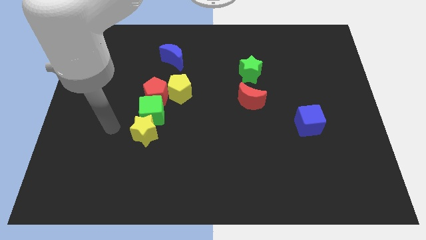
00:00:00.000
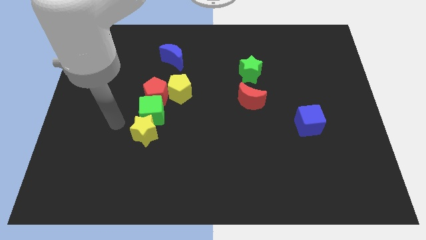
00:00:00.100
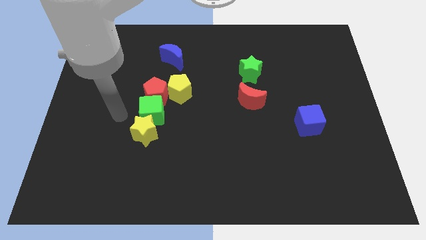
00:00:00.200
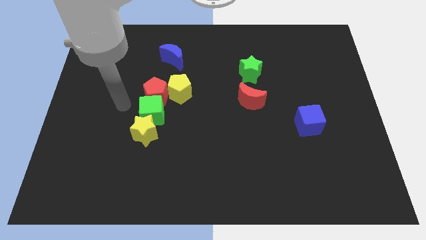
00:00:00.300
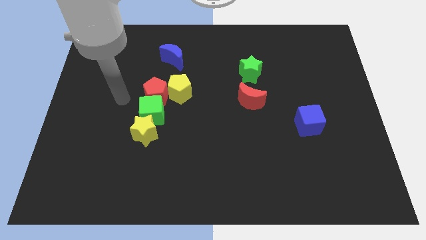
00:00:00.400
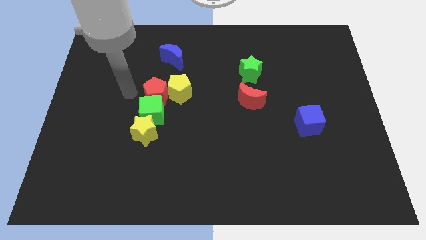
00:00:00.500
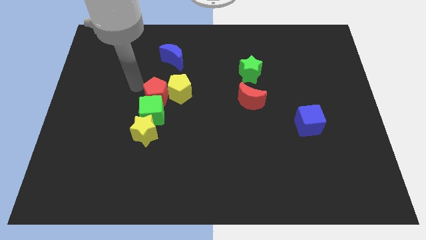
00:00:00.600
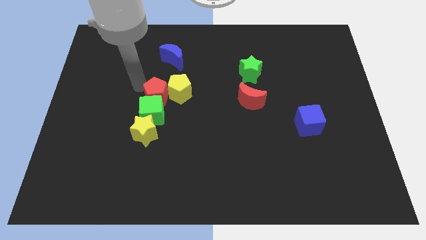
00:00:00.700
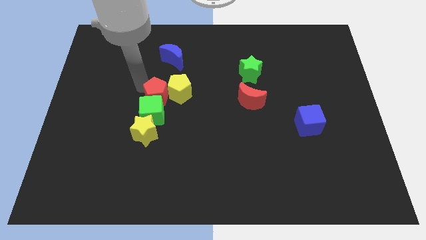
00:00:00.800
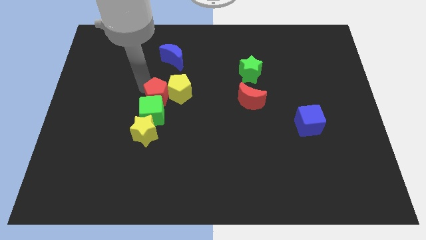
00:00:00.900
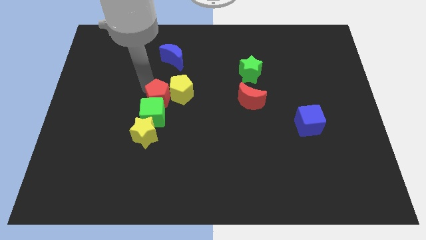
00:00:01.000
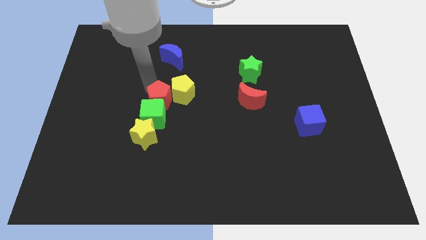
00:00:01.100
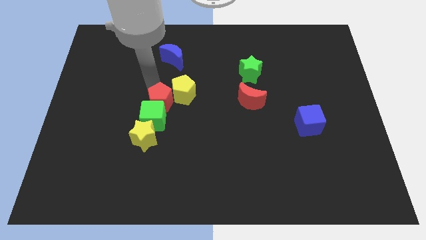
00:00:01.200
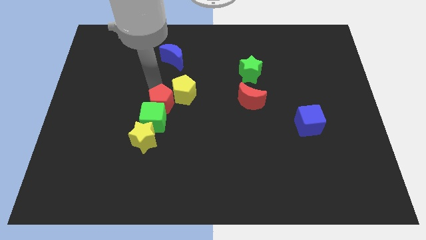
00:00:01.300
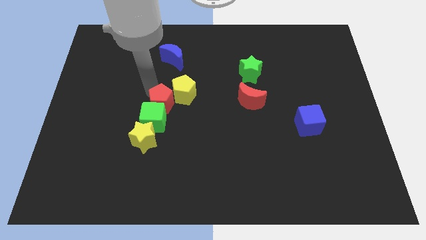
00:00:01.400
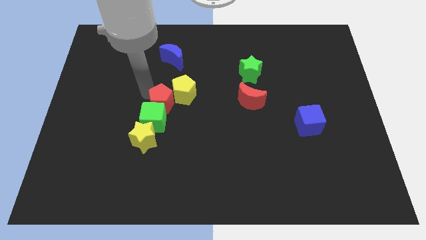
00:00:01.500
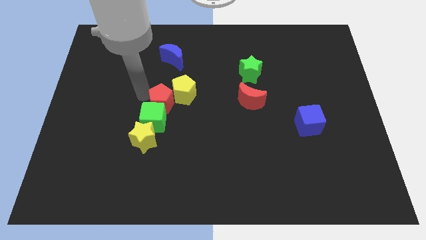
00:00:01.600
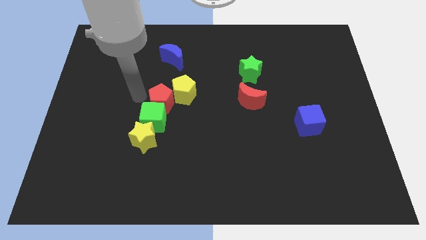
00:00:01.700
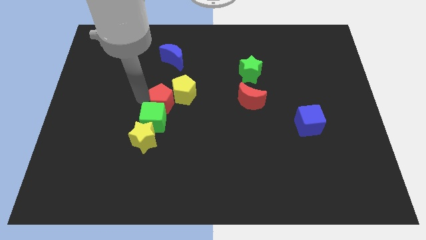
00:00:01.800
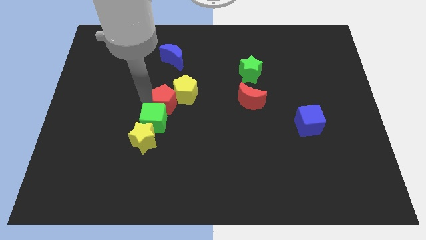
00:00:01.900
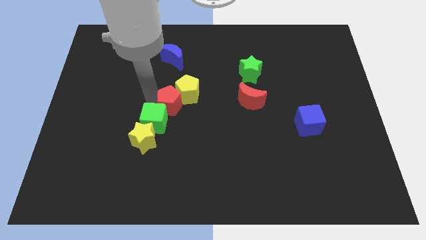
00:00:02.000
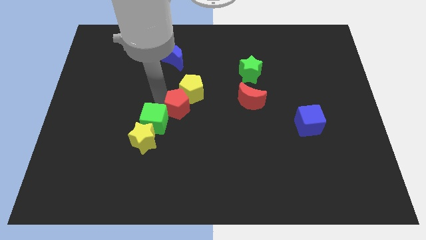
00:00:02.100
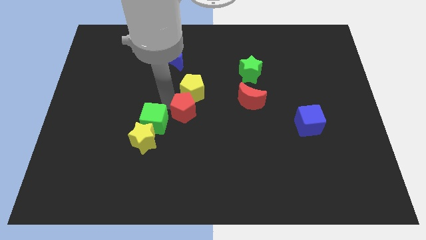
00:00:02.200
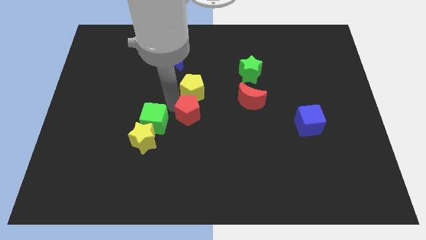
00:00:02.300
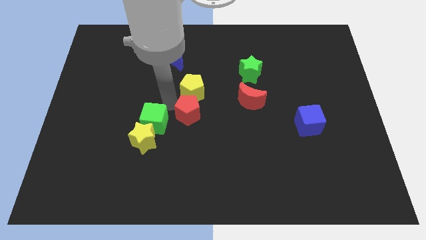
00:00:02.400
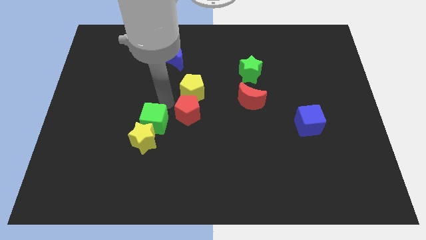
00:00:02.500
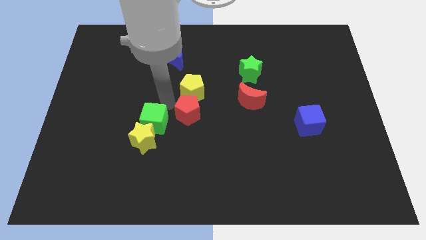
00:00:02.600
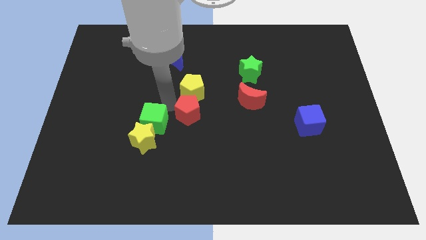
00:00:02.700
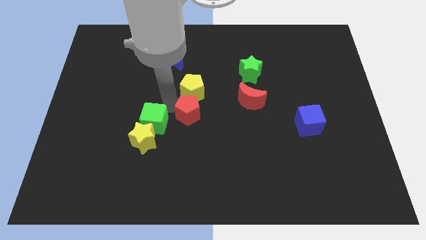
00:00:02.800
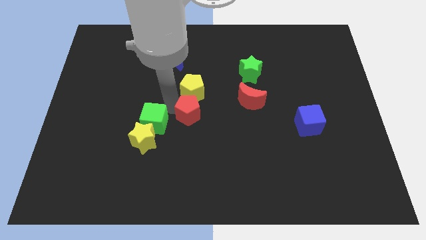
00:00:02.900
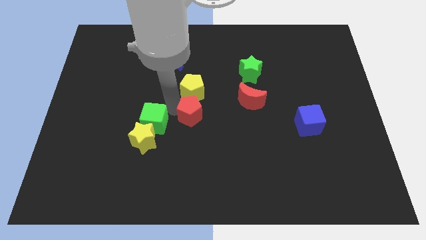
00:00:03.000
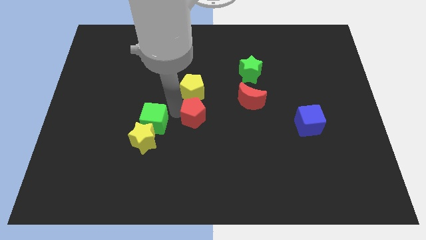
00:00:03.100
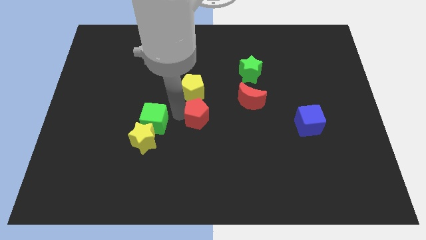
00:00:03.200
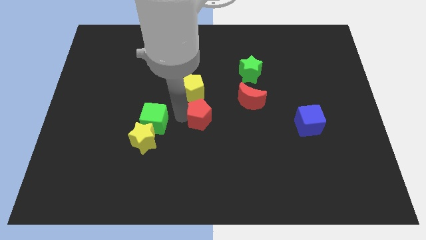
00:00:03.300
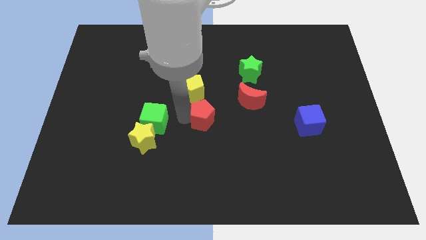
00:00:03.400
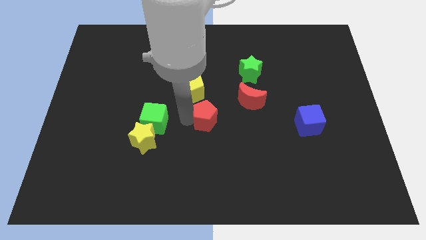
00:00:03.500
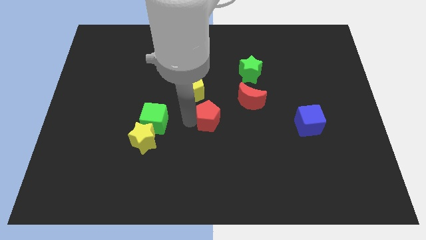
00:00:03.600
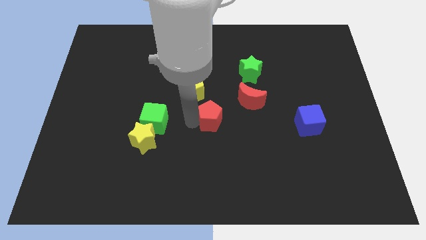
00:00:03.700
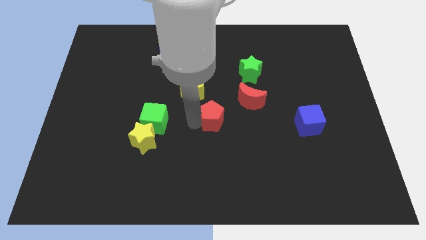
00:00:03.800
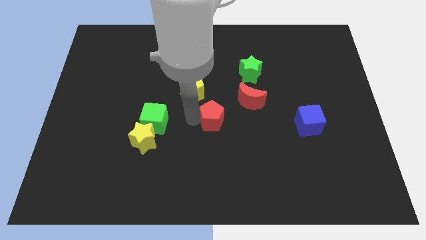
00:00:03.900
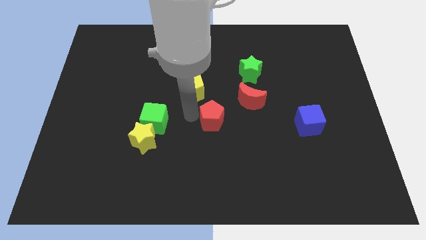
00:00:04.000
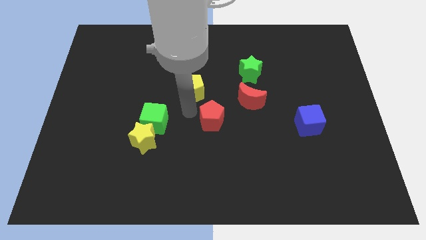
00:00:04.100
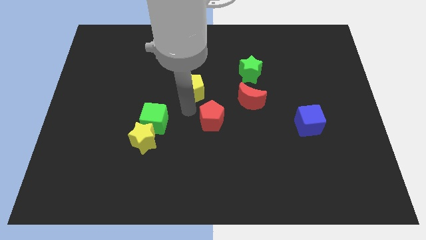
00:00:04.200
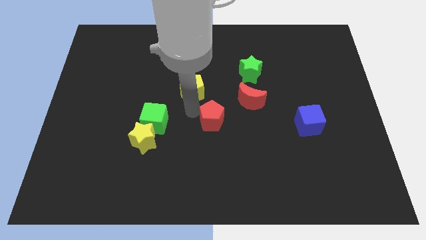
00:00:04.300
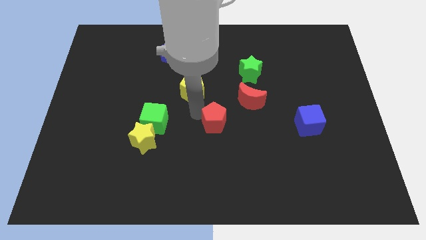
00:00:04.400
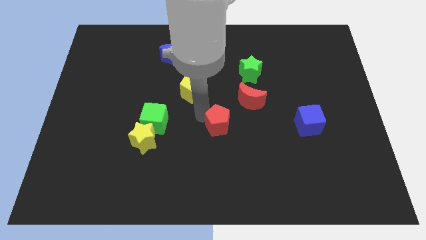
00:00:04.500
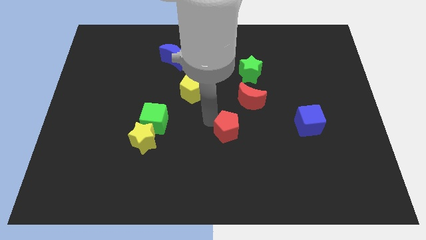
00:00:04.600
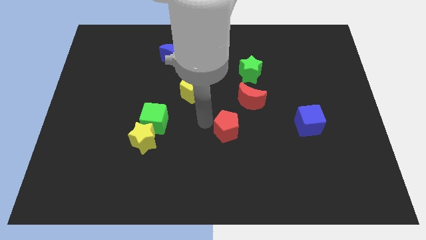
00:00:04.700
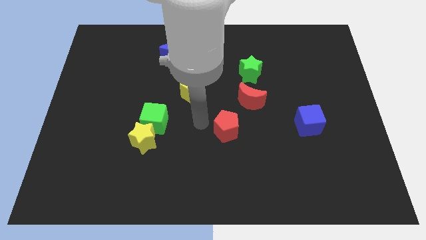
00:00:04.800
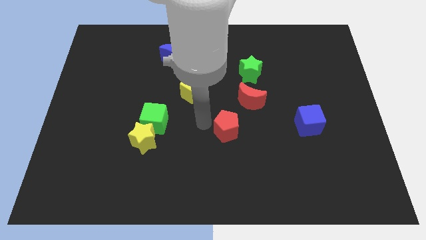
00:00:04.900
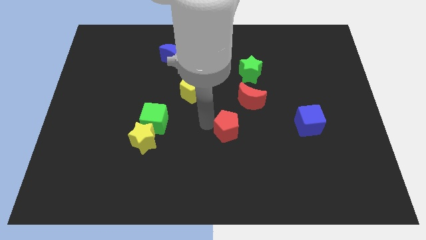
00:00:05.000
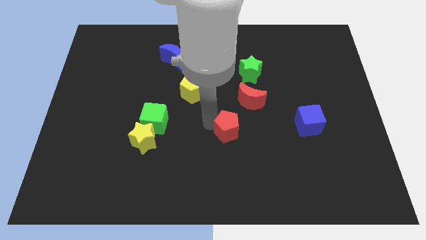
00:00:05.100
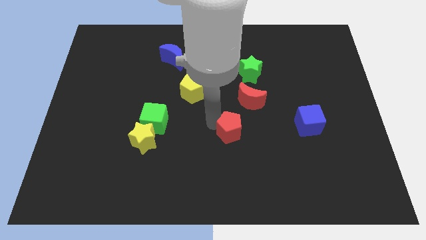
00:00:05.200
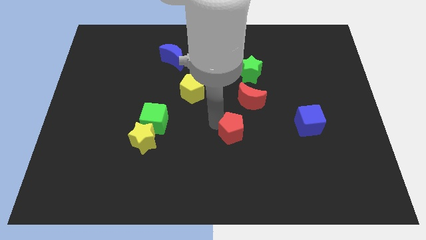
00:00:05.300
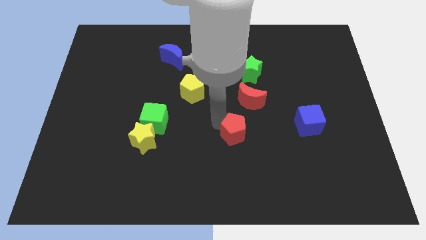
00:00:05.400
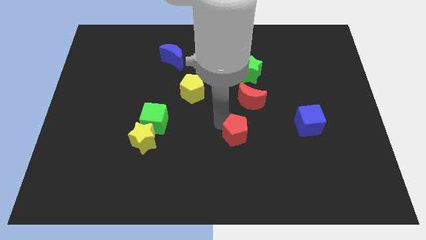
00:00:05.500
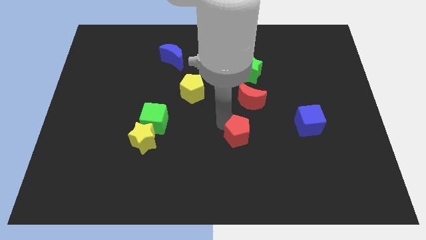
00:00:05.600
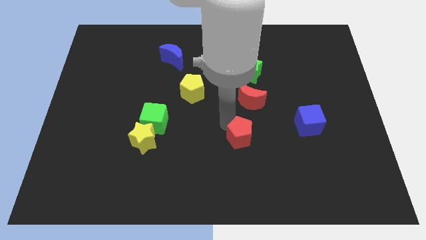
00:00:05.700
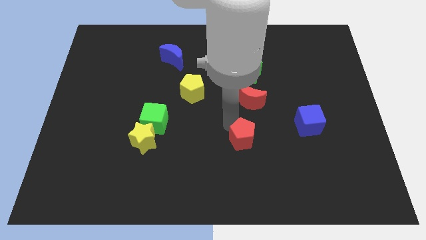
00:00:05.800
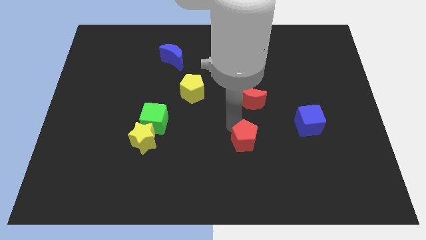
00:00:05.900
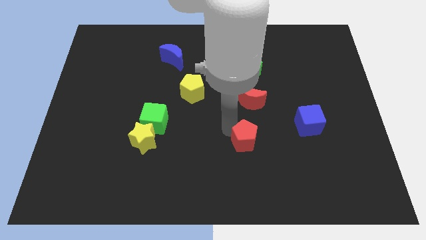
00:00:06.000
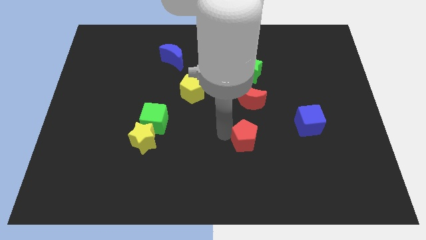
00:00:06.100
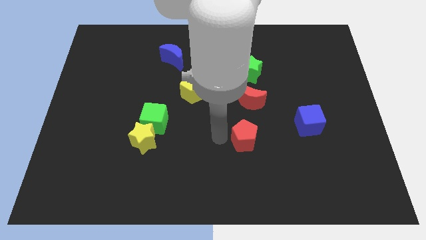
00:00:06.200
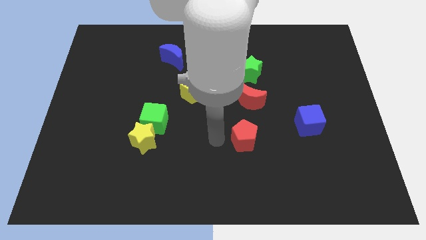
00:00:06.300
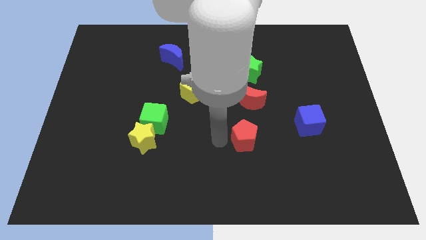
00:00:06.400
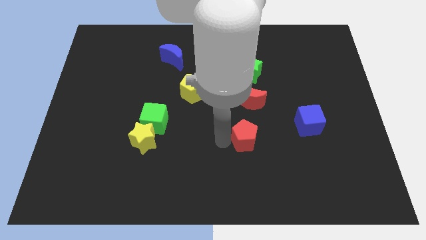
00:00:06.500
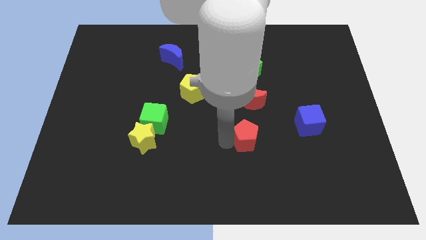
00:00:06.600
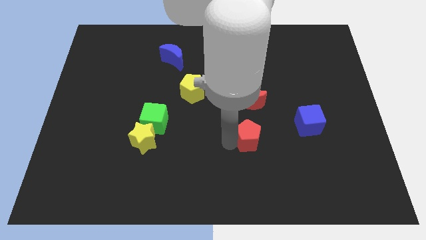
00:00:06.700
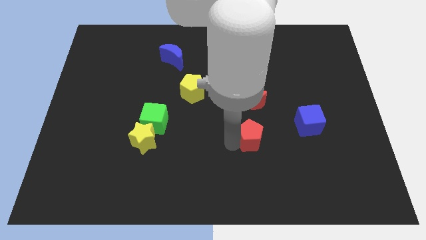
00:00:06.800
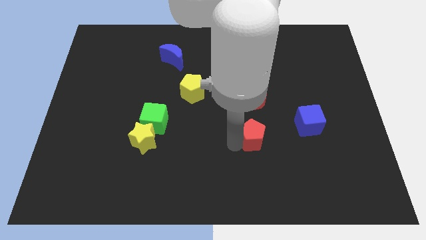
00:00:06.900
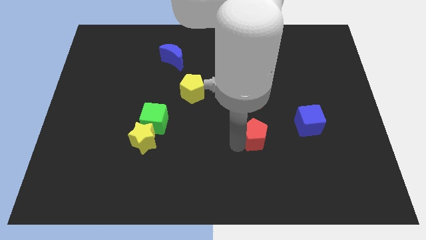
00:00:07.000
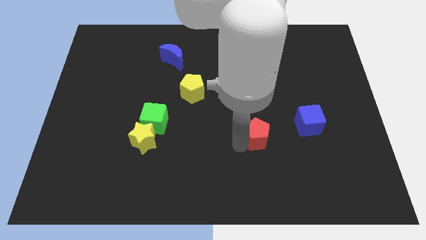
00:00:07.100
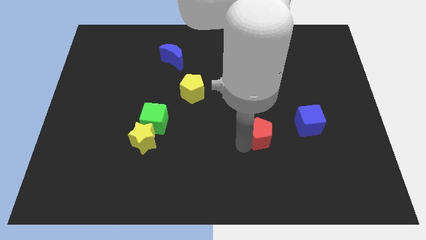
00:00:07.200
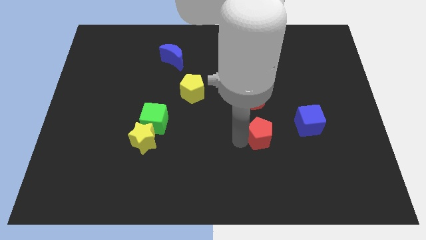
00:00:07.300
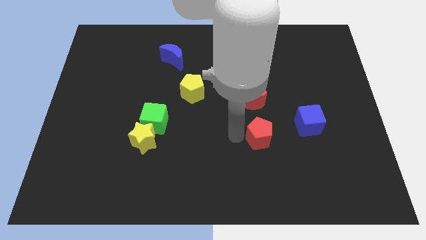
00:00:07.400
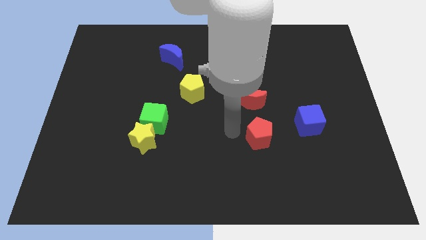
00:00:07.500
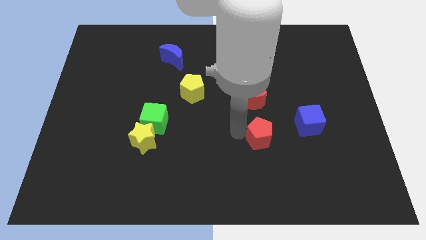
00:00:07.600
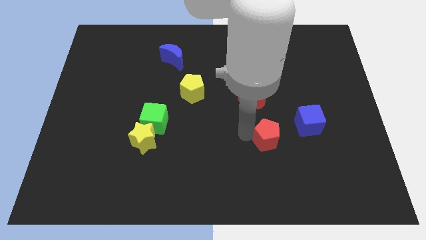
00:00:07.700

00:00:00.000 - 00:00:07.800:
push the red pentagon diagonally down and to the left of the blue cube
